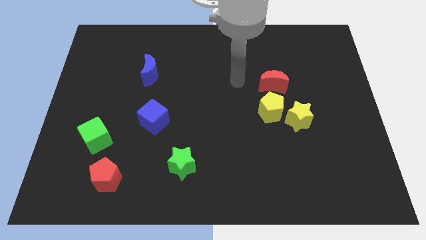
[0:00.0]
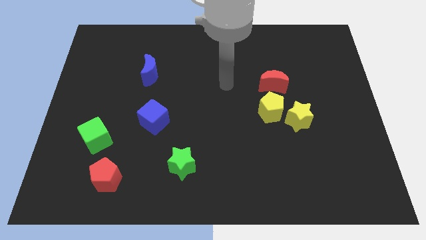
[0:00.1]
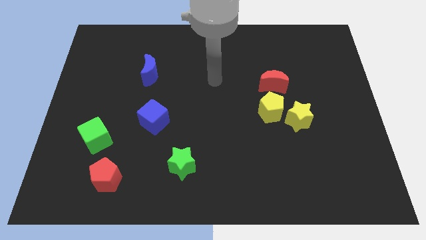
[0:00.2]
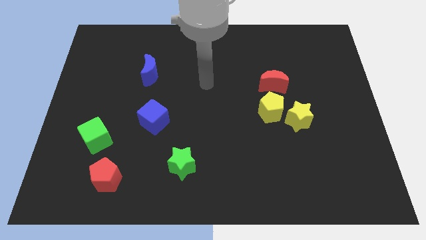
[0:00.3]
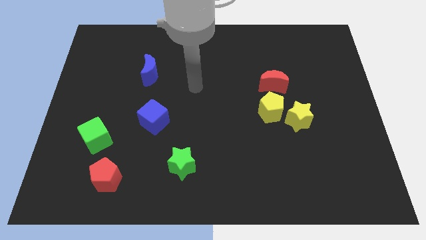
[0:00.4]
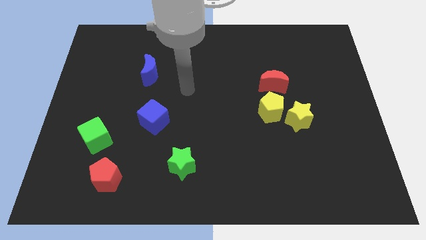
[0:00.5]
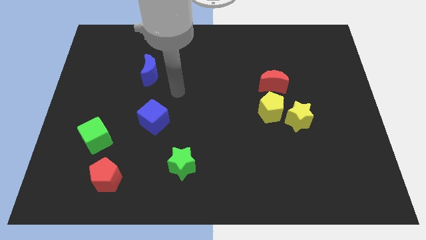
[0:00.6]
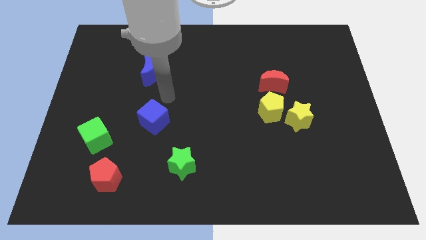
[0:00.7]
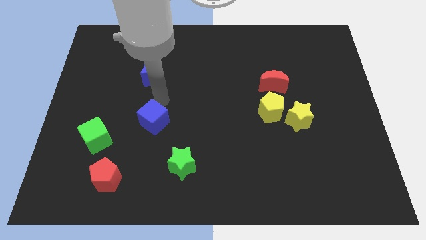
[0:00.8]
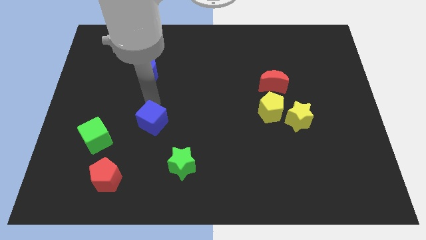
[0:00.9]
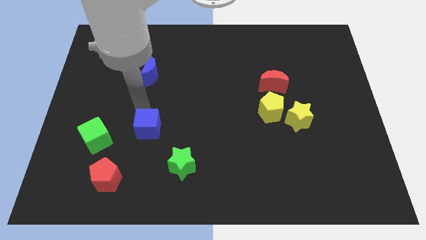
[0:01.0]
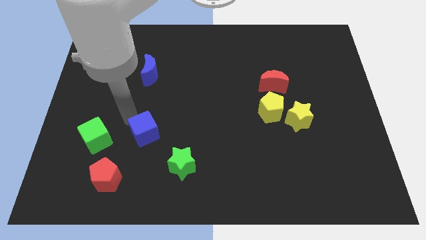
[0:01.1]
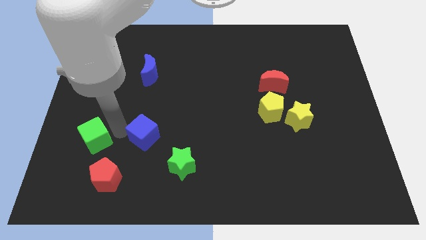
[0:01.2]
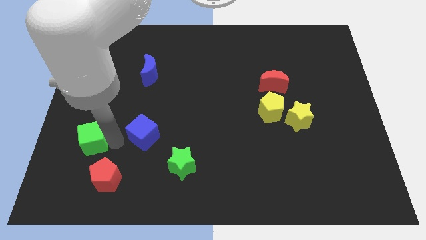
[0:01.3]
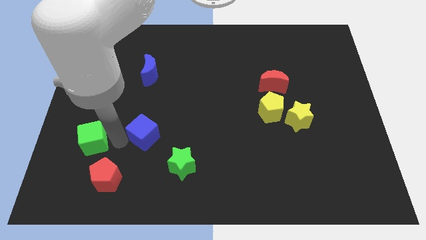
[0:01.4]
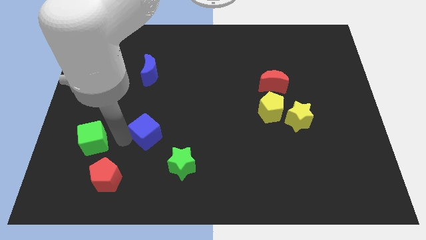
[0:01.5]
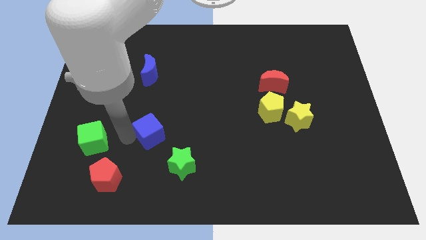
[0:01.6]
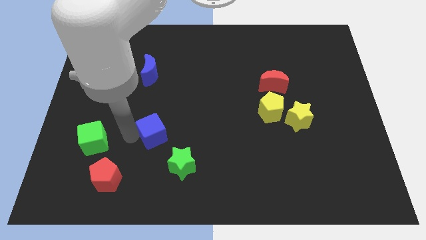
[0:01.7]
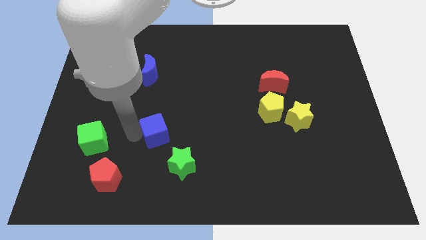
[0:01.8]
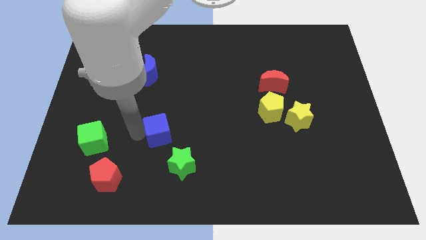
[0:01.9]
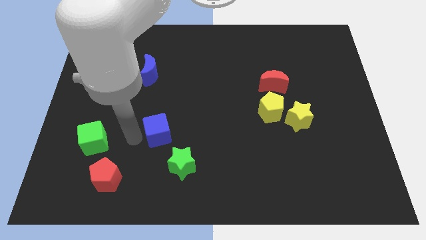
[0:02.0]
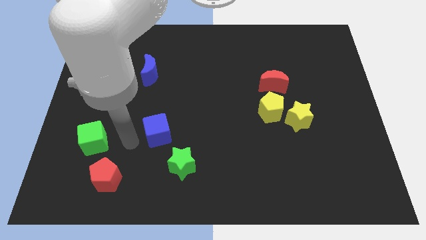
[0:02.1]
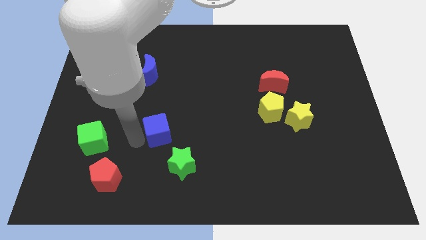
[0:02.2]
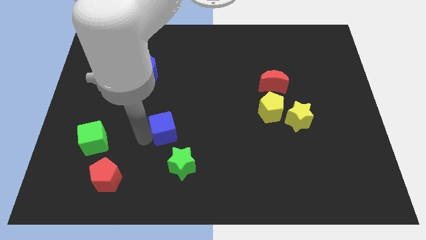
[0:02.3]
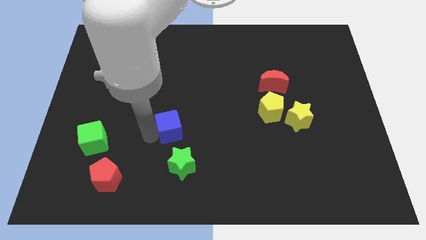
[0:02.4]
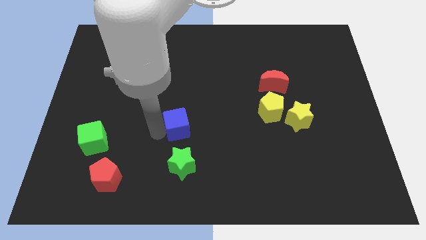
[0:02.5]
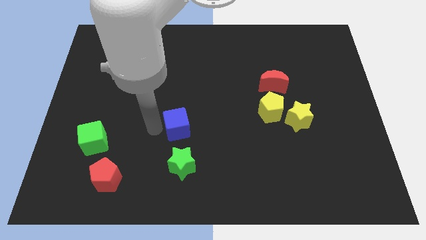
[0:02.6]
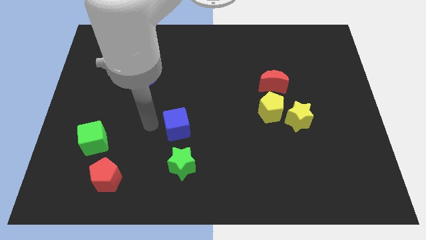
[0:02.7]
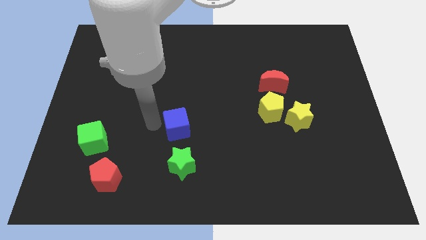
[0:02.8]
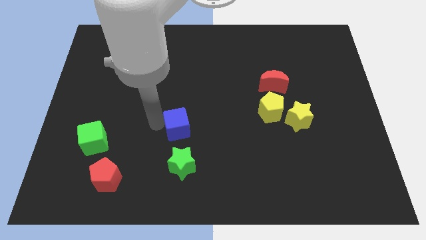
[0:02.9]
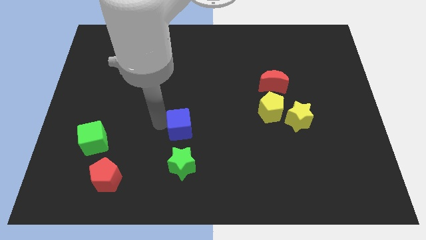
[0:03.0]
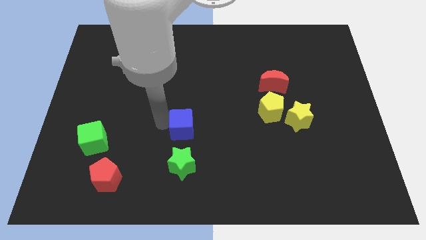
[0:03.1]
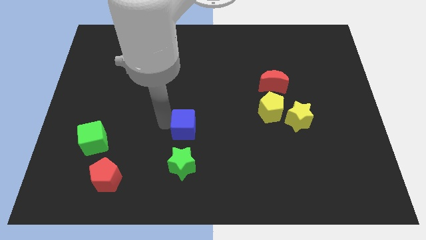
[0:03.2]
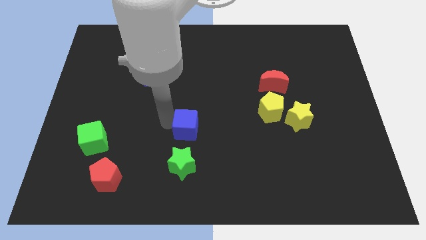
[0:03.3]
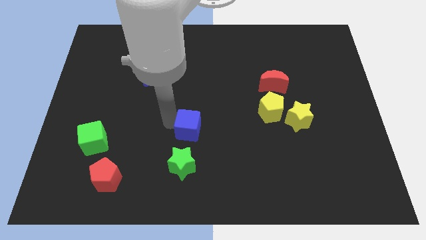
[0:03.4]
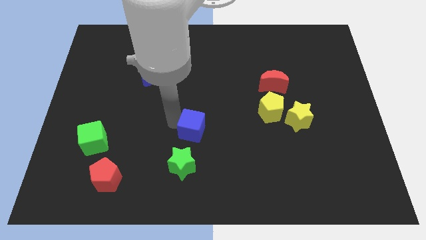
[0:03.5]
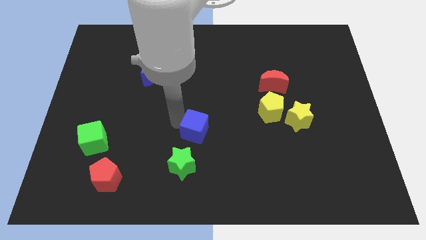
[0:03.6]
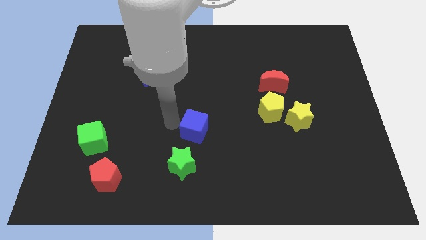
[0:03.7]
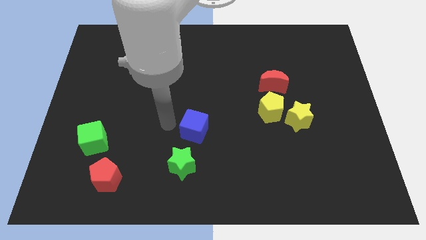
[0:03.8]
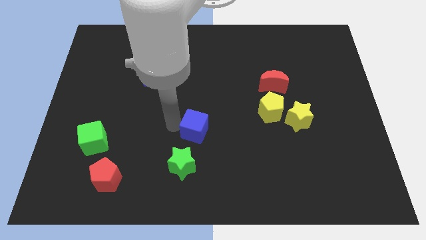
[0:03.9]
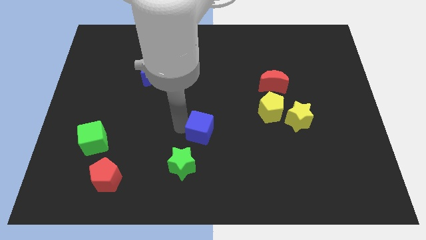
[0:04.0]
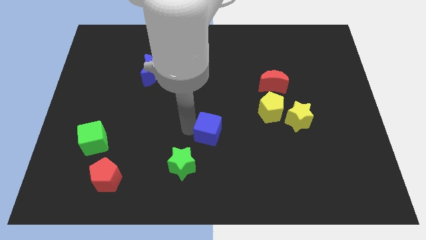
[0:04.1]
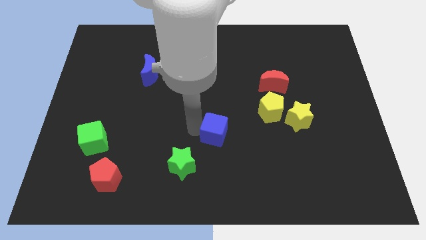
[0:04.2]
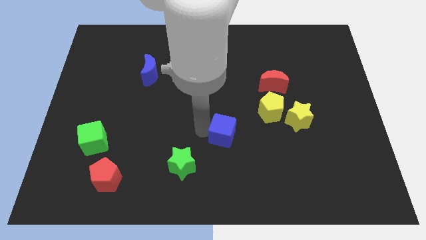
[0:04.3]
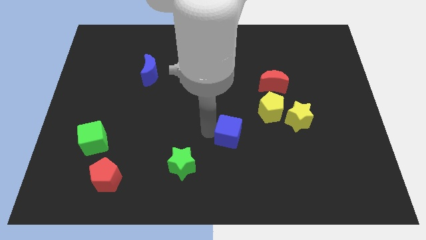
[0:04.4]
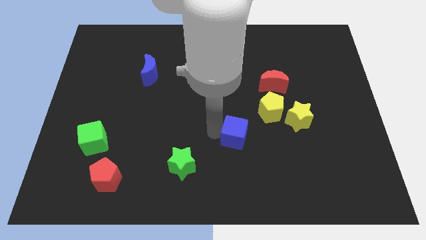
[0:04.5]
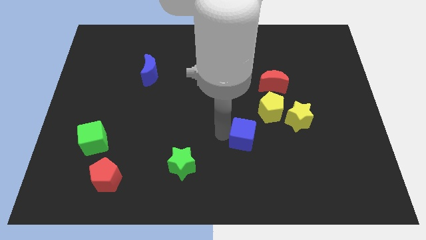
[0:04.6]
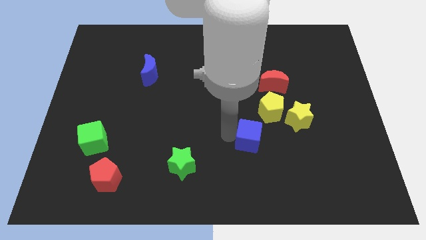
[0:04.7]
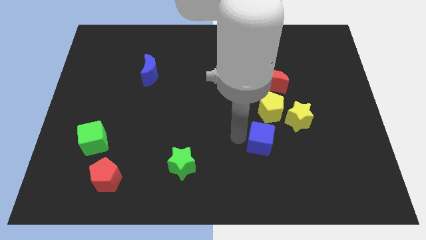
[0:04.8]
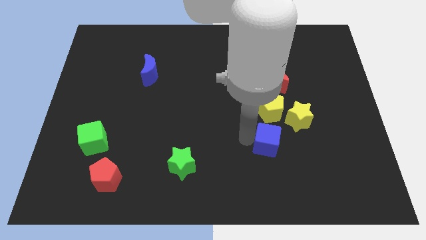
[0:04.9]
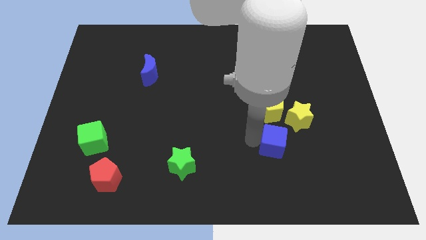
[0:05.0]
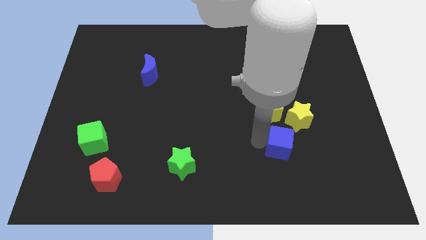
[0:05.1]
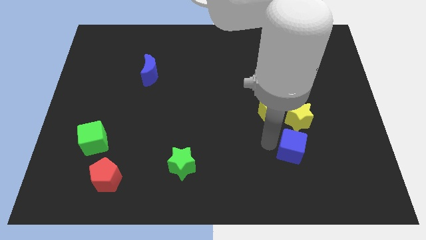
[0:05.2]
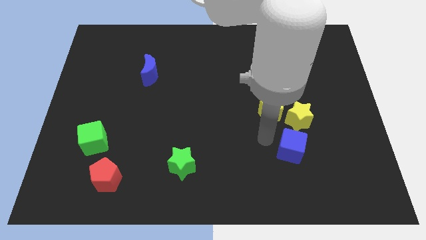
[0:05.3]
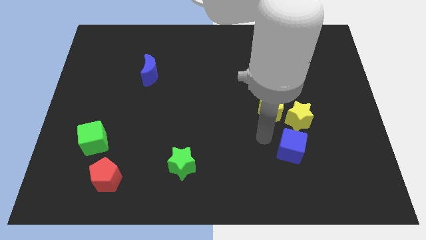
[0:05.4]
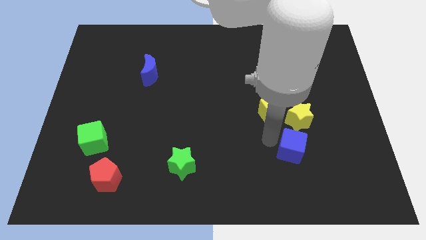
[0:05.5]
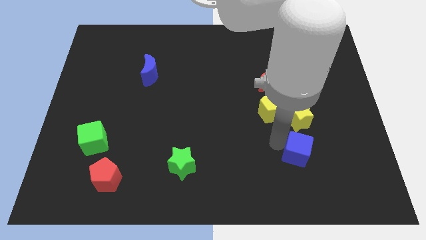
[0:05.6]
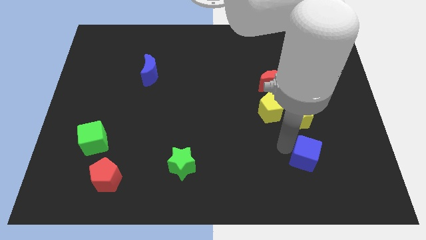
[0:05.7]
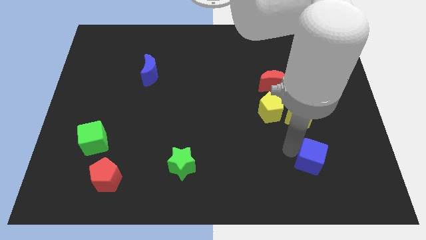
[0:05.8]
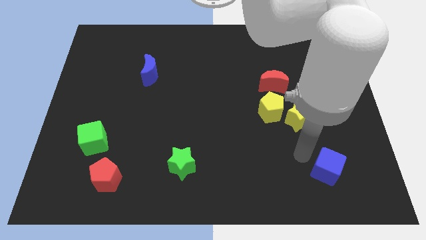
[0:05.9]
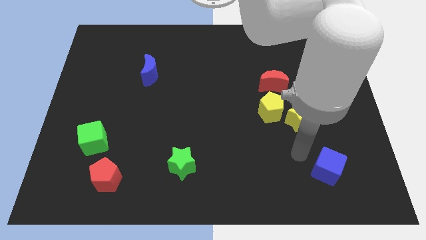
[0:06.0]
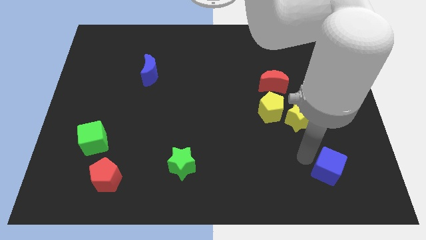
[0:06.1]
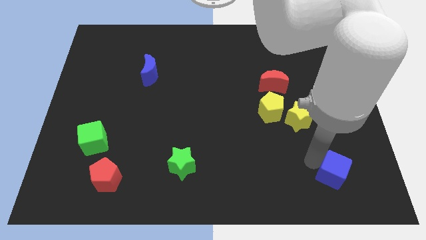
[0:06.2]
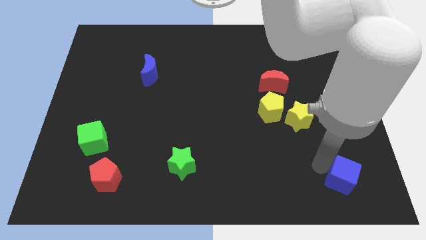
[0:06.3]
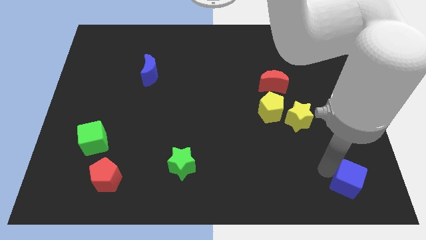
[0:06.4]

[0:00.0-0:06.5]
move the blue cube to the bottom right of the board

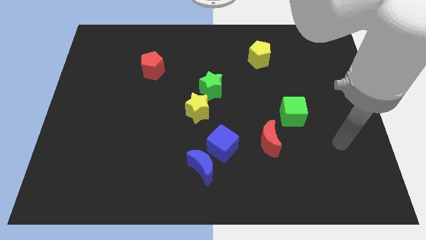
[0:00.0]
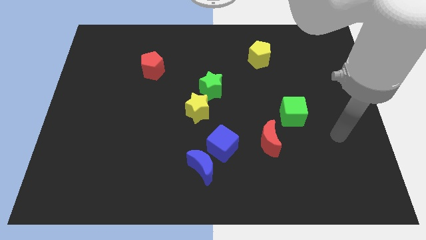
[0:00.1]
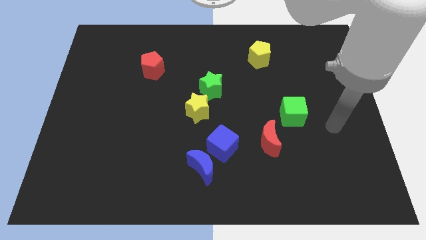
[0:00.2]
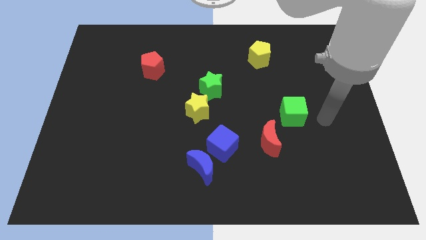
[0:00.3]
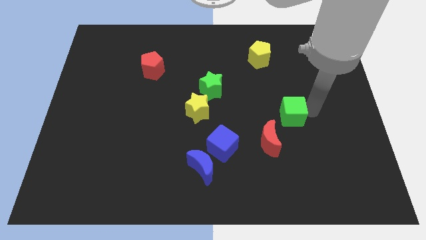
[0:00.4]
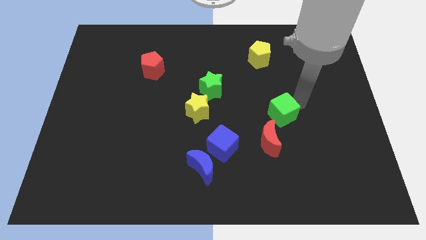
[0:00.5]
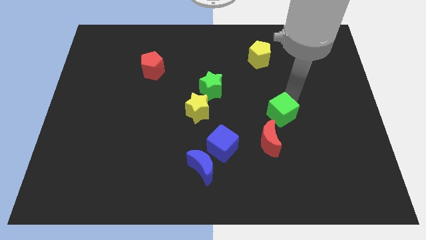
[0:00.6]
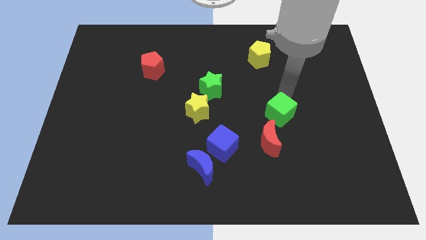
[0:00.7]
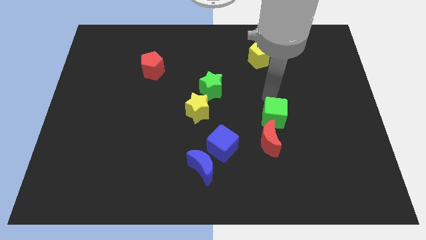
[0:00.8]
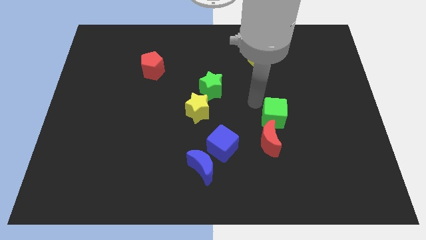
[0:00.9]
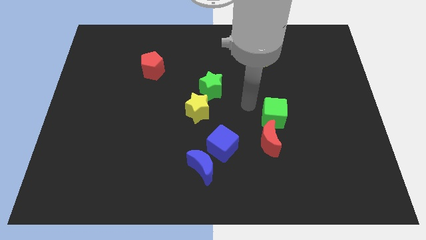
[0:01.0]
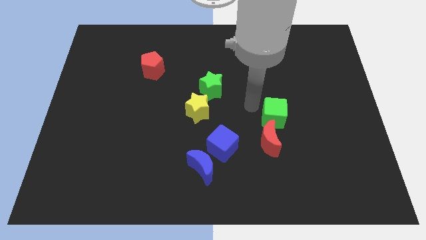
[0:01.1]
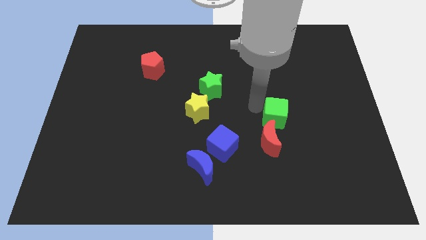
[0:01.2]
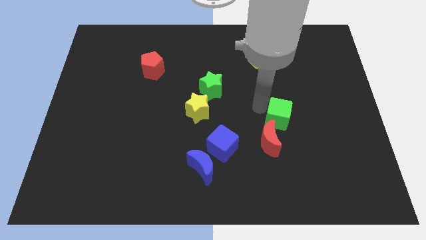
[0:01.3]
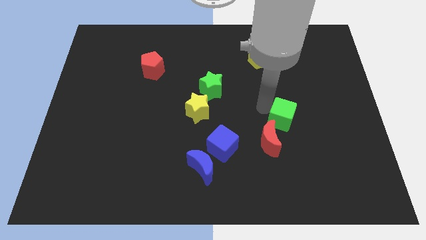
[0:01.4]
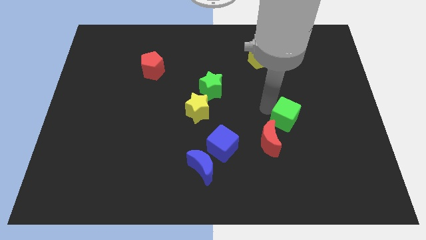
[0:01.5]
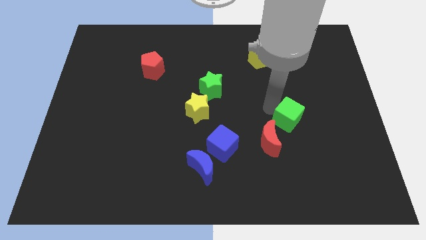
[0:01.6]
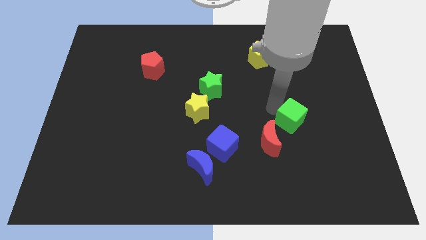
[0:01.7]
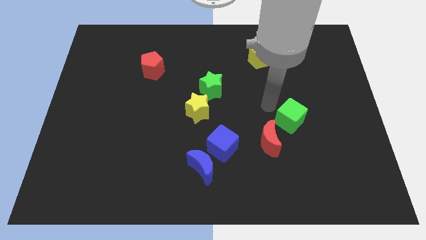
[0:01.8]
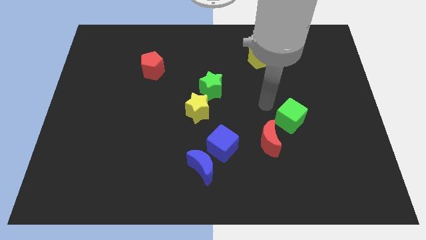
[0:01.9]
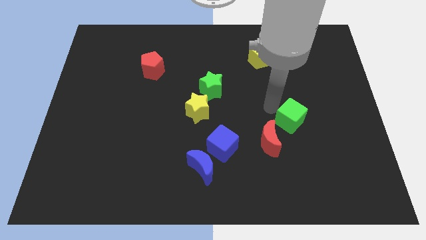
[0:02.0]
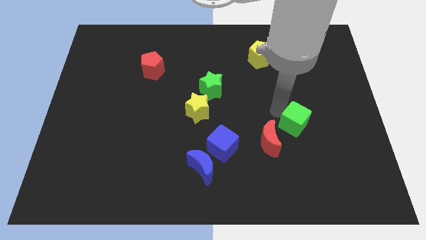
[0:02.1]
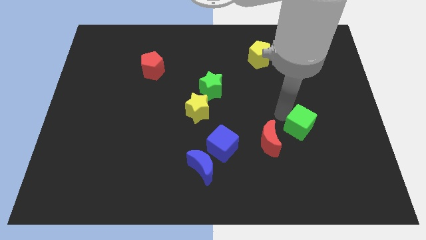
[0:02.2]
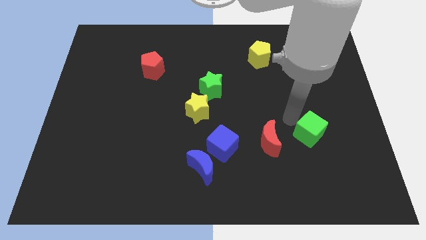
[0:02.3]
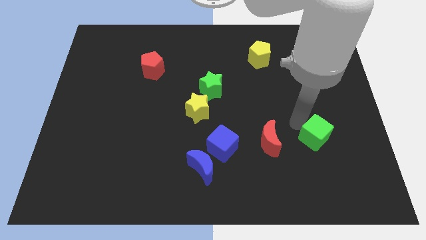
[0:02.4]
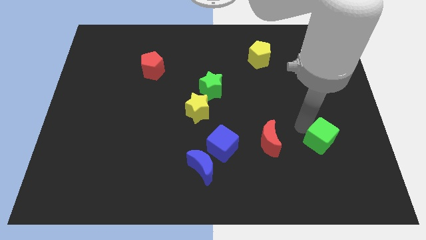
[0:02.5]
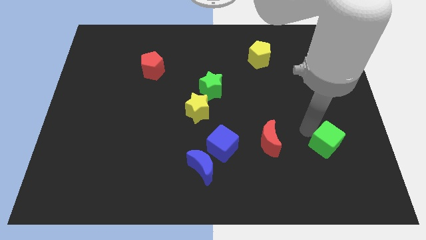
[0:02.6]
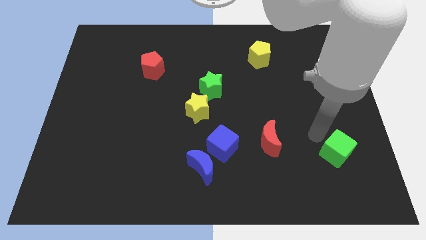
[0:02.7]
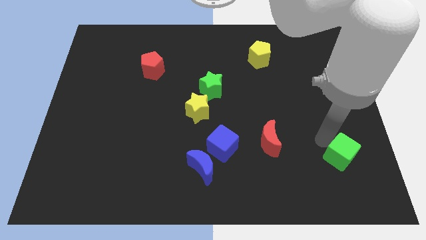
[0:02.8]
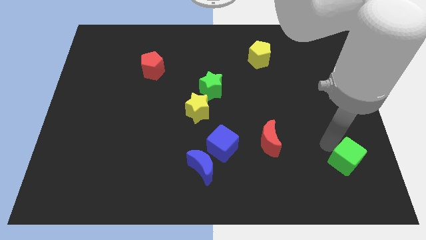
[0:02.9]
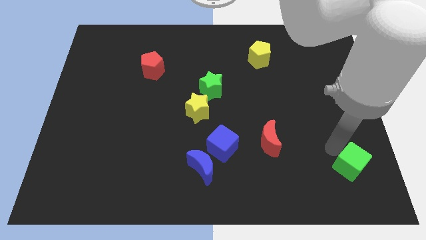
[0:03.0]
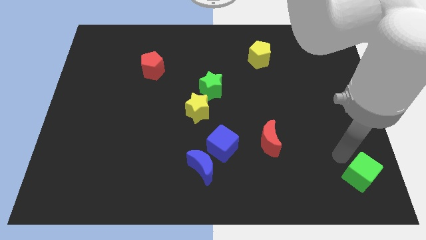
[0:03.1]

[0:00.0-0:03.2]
push the green cube to the bottom right
